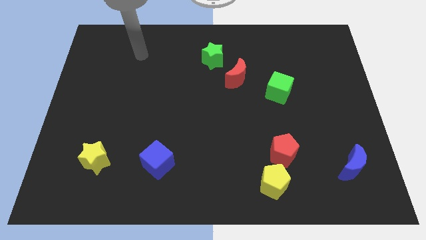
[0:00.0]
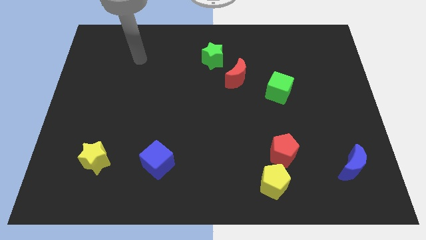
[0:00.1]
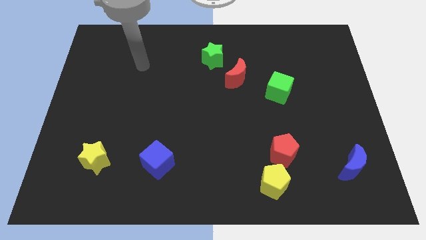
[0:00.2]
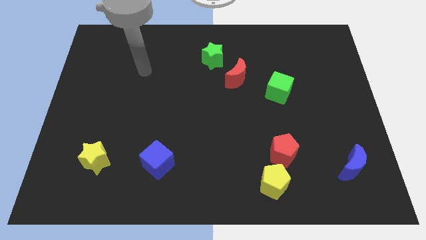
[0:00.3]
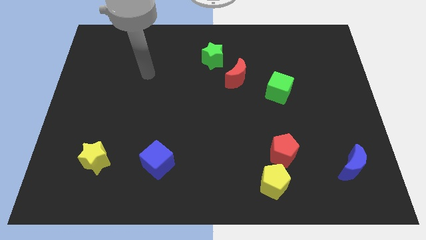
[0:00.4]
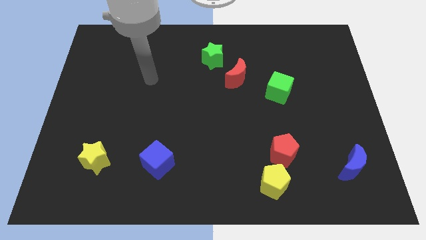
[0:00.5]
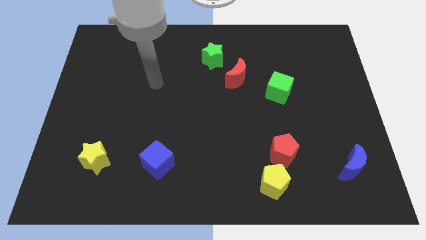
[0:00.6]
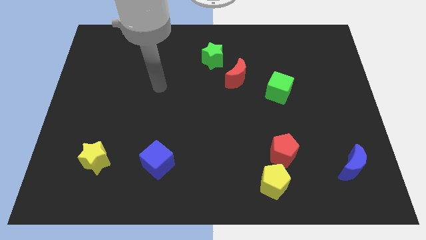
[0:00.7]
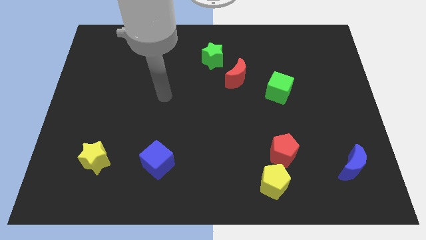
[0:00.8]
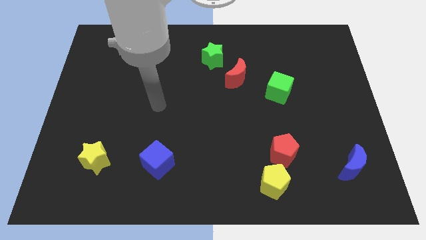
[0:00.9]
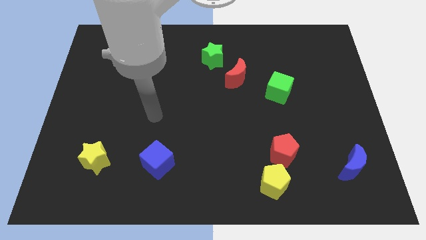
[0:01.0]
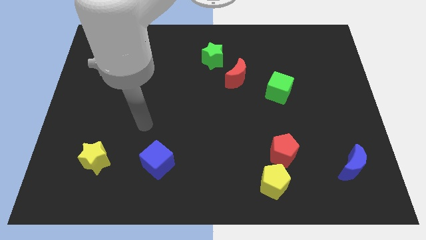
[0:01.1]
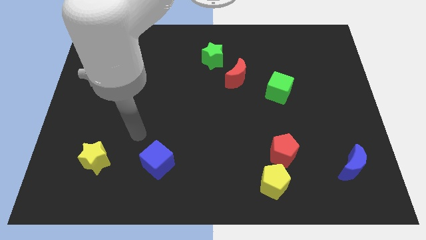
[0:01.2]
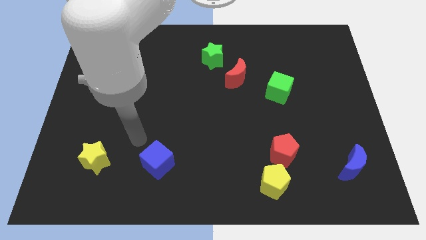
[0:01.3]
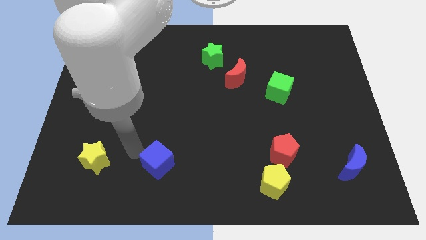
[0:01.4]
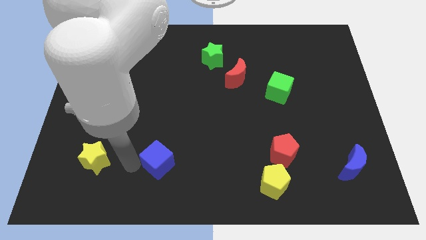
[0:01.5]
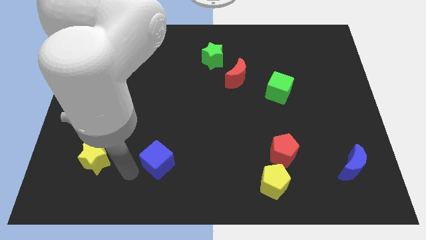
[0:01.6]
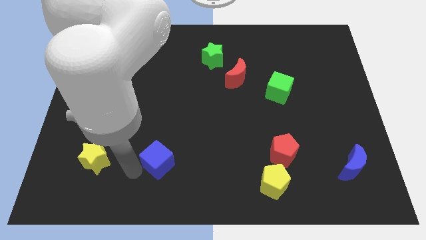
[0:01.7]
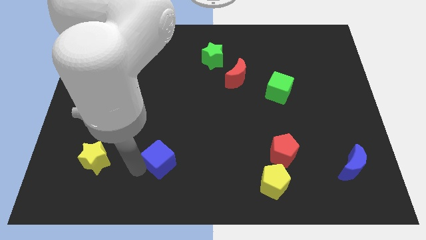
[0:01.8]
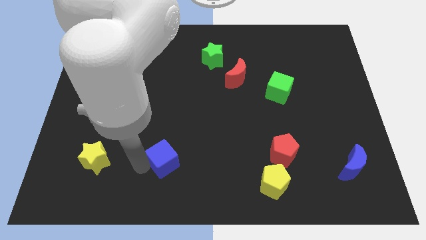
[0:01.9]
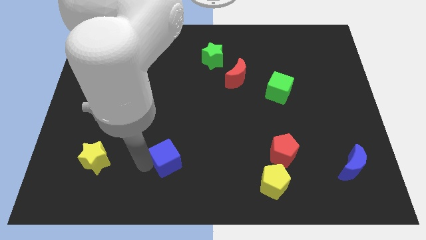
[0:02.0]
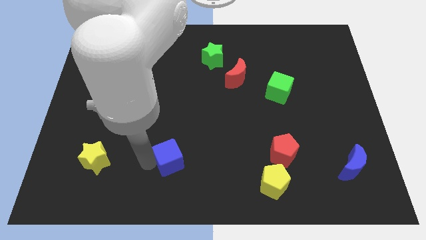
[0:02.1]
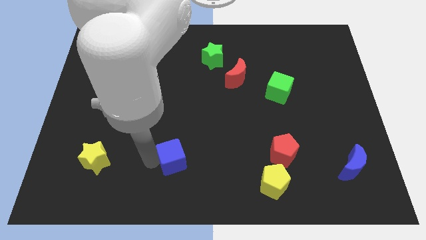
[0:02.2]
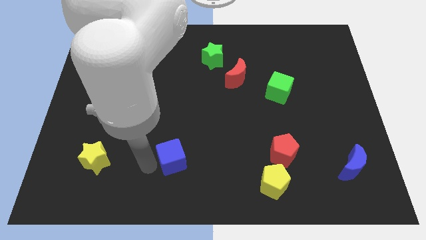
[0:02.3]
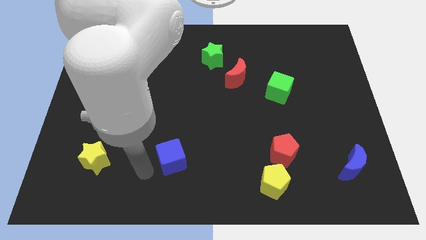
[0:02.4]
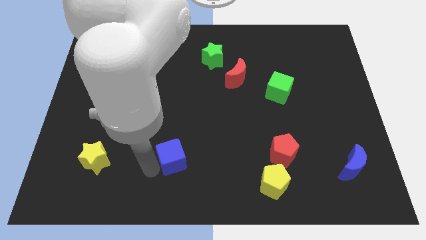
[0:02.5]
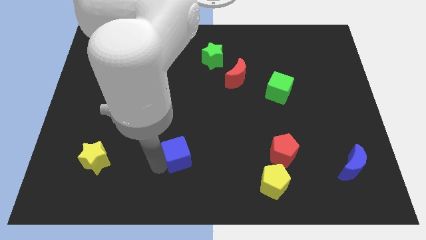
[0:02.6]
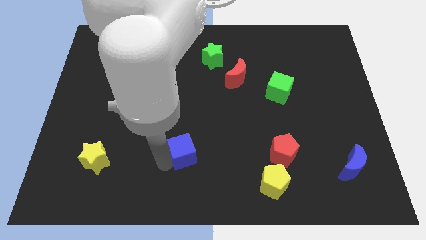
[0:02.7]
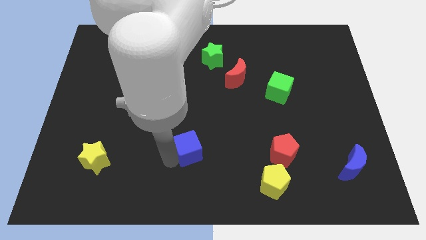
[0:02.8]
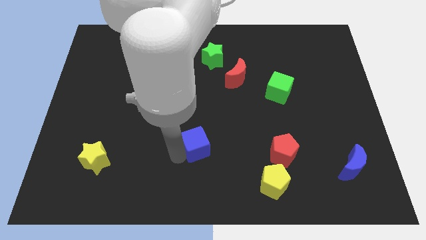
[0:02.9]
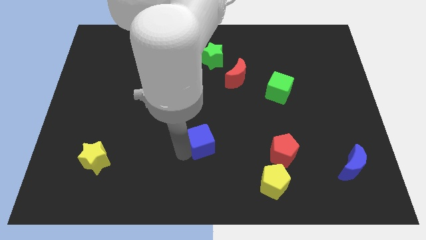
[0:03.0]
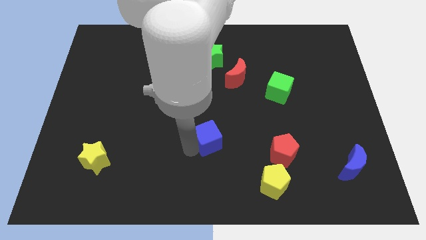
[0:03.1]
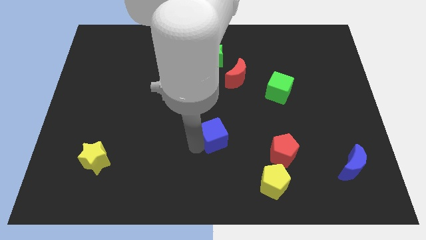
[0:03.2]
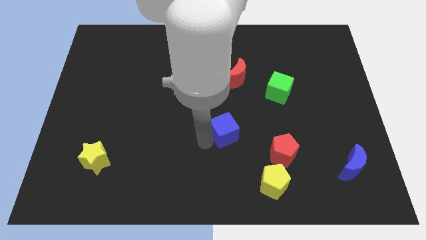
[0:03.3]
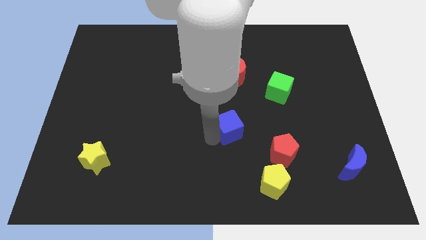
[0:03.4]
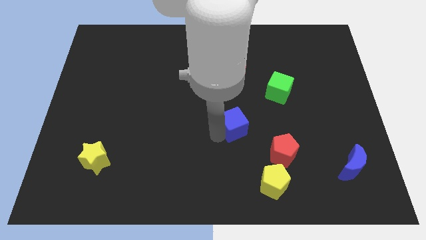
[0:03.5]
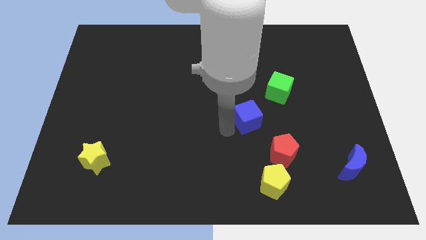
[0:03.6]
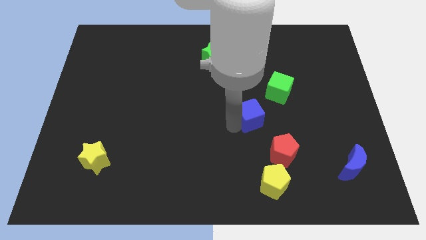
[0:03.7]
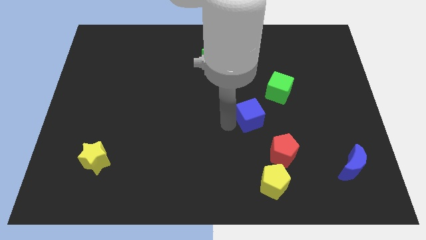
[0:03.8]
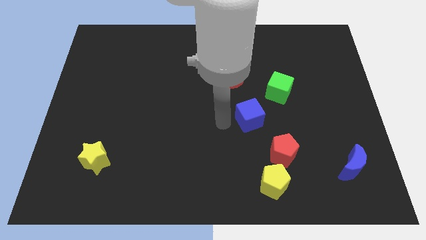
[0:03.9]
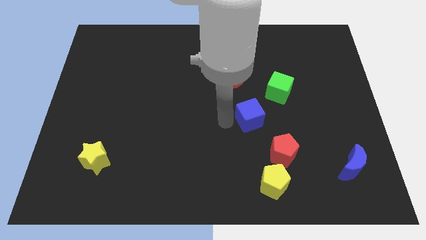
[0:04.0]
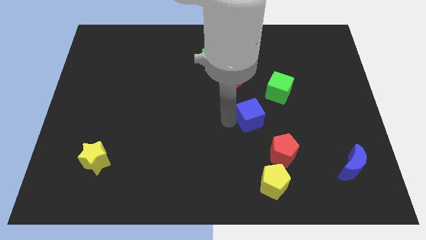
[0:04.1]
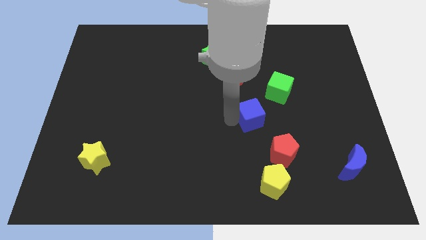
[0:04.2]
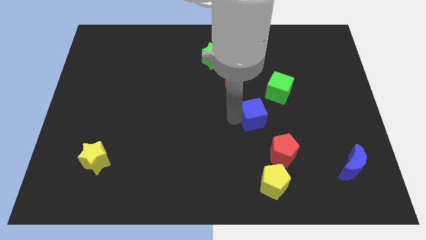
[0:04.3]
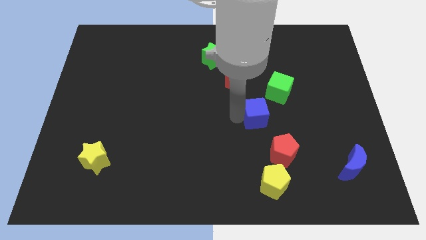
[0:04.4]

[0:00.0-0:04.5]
slide the blue cube above the red pentagon

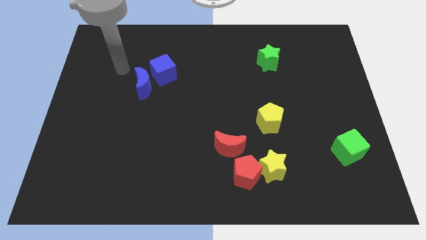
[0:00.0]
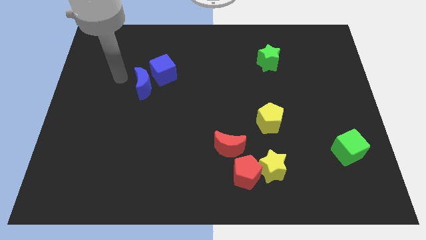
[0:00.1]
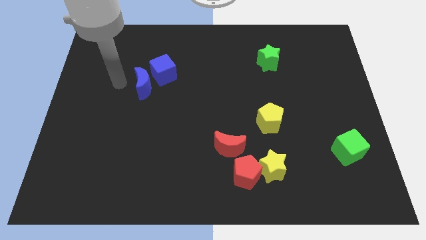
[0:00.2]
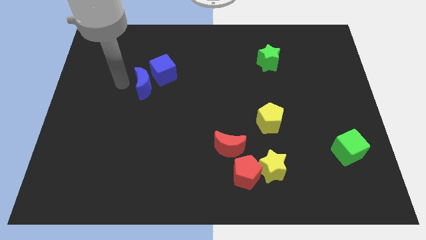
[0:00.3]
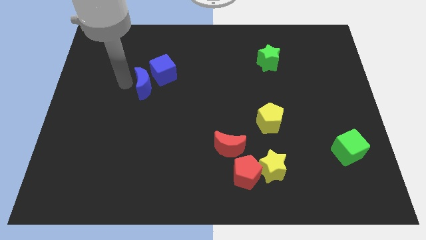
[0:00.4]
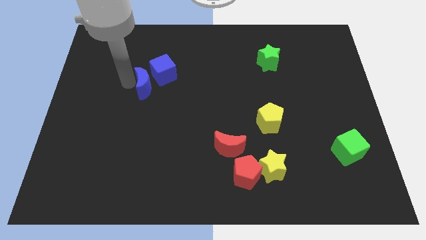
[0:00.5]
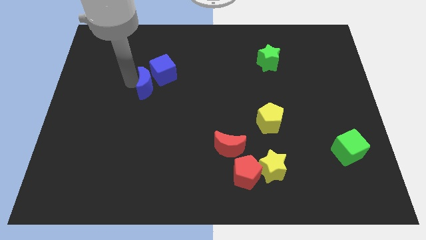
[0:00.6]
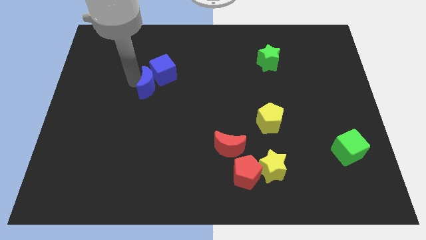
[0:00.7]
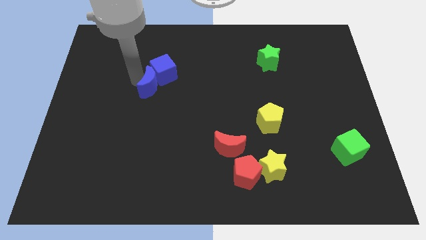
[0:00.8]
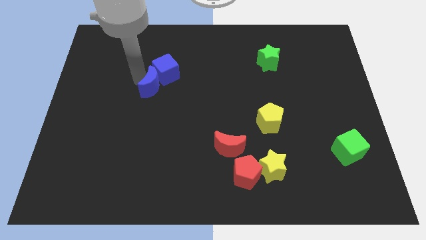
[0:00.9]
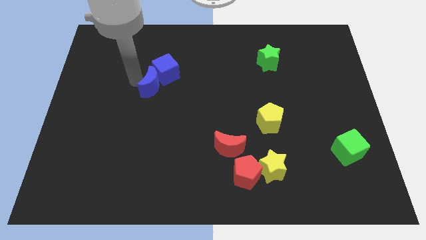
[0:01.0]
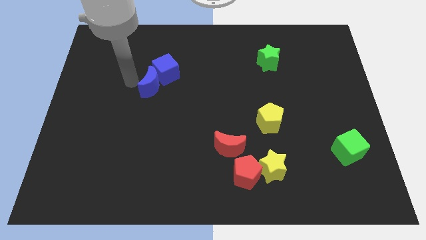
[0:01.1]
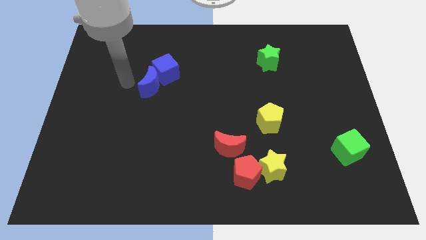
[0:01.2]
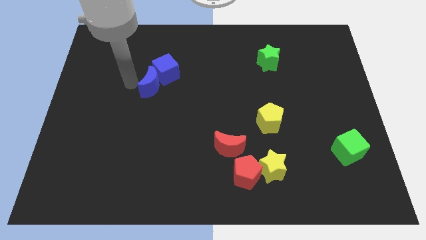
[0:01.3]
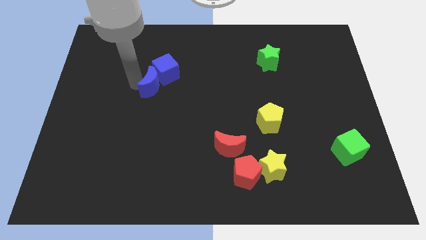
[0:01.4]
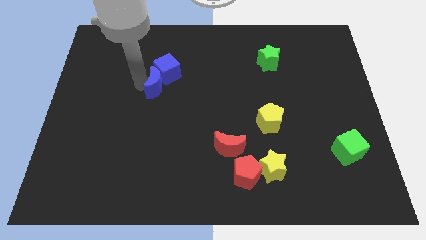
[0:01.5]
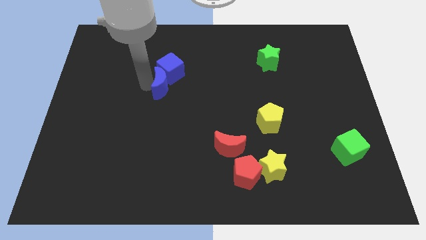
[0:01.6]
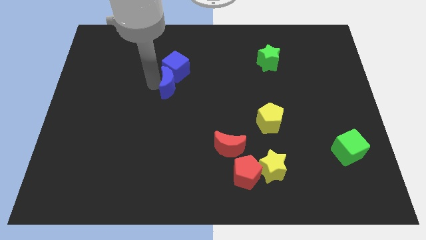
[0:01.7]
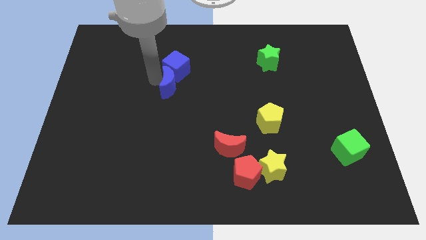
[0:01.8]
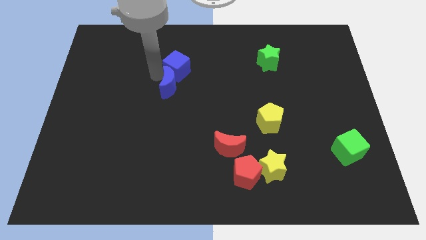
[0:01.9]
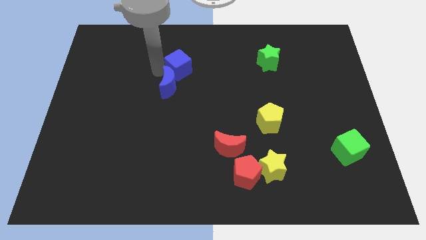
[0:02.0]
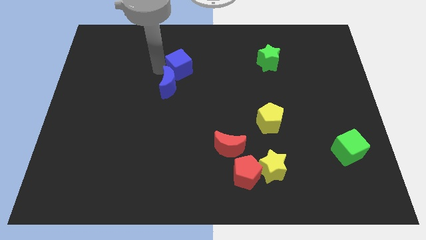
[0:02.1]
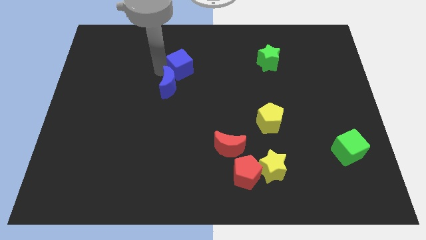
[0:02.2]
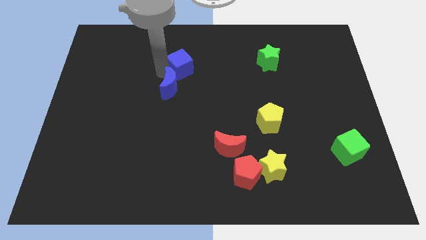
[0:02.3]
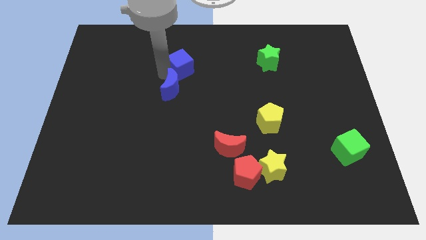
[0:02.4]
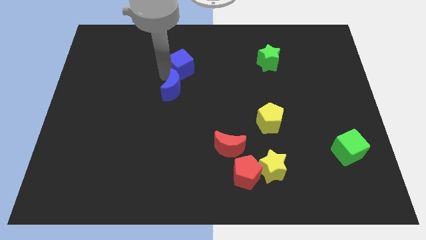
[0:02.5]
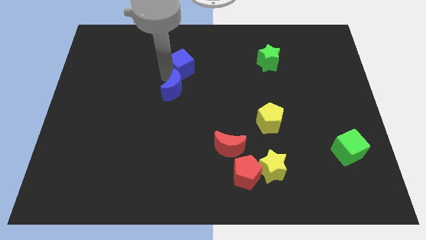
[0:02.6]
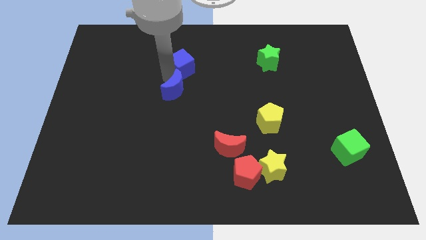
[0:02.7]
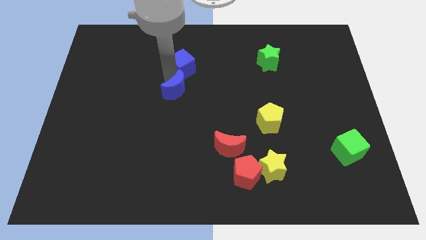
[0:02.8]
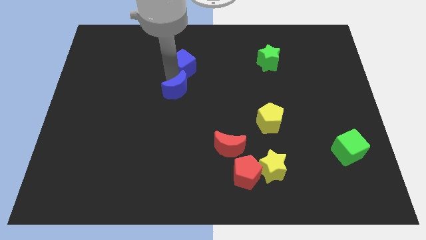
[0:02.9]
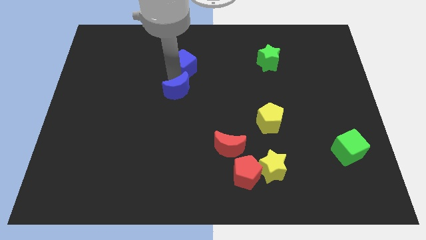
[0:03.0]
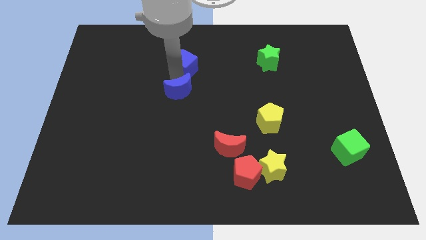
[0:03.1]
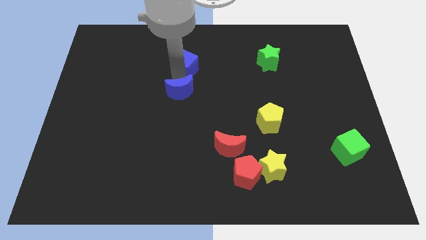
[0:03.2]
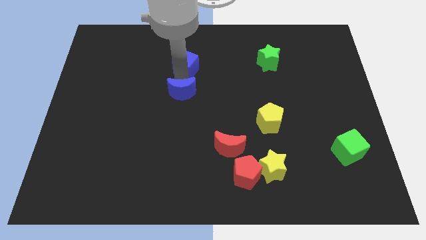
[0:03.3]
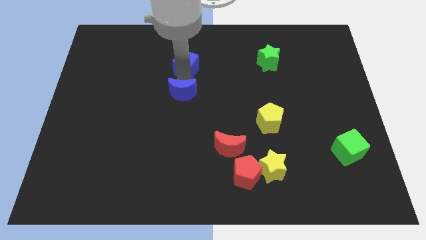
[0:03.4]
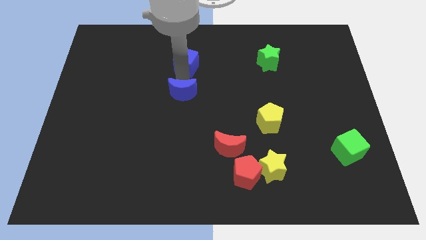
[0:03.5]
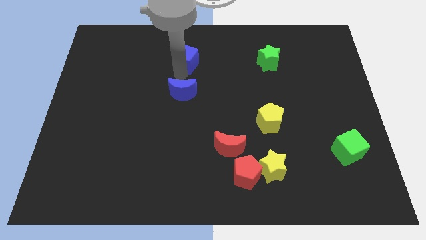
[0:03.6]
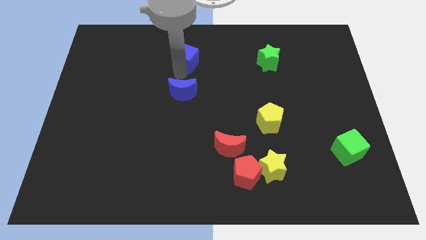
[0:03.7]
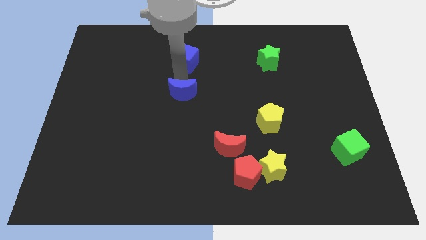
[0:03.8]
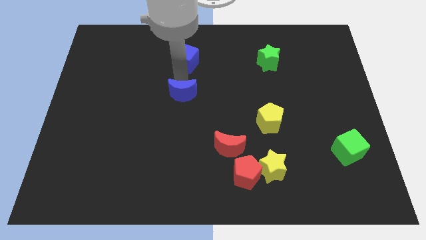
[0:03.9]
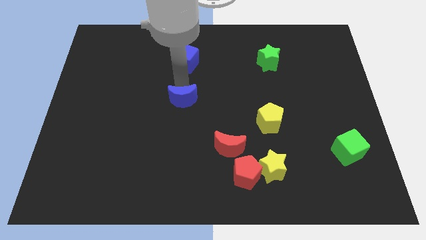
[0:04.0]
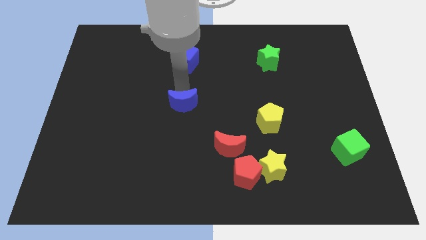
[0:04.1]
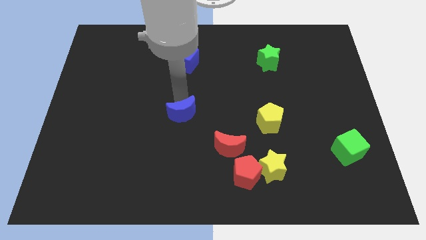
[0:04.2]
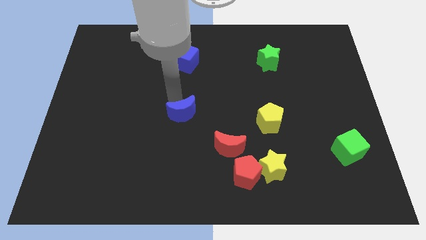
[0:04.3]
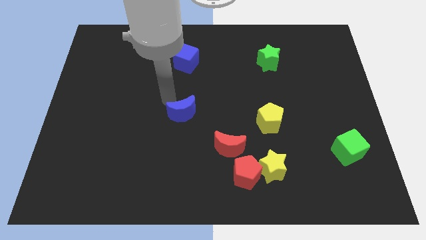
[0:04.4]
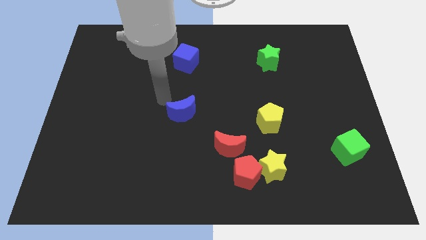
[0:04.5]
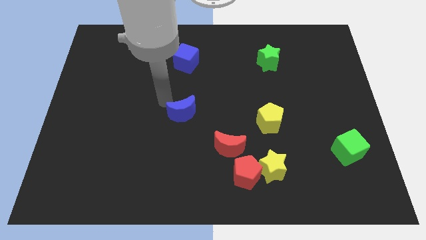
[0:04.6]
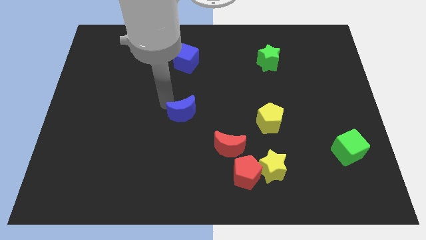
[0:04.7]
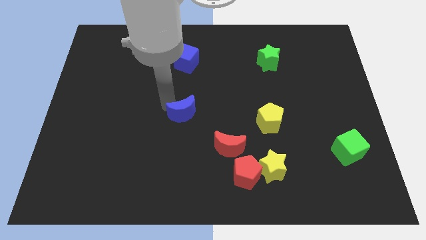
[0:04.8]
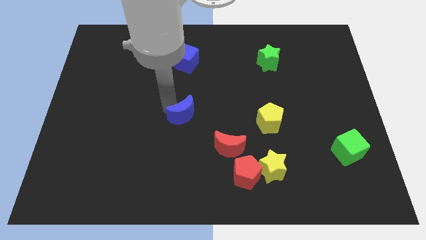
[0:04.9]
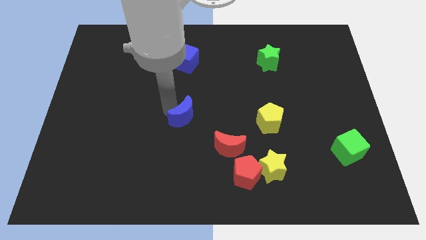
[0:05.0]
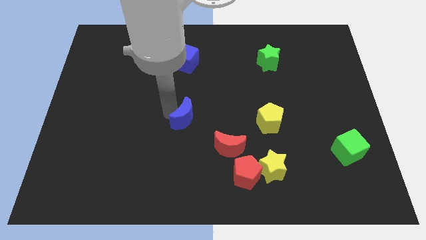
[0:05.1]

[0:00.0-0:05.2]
push the blue moon to the top left side of the red moon
